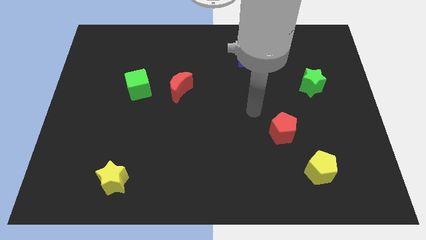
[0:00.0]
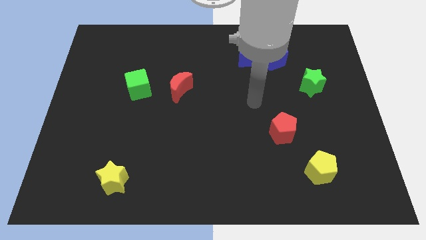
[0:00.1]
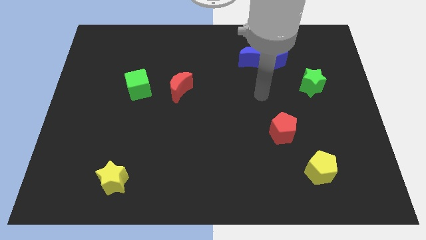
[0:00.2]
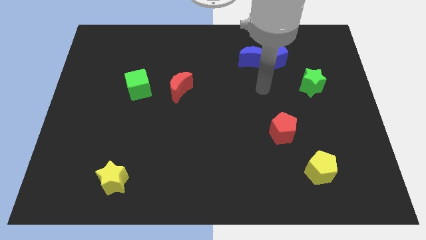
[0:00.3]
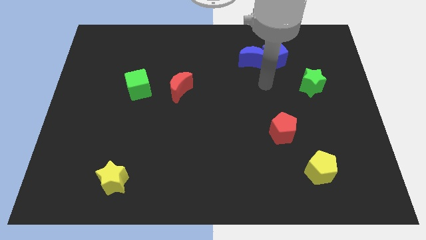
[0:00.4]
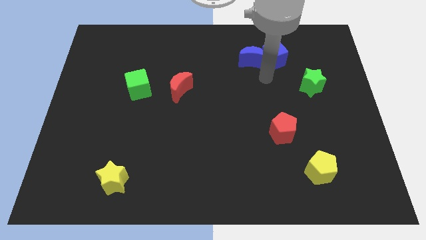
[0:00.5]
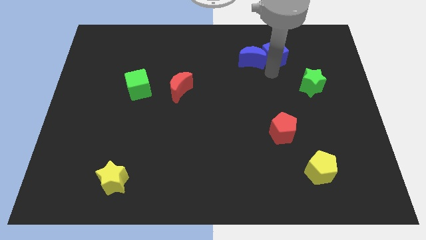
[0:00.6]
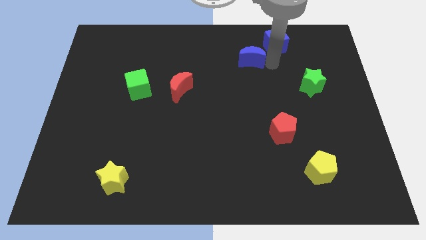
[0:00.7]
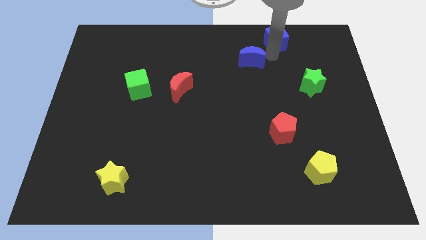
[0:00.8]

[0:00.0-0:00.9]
move the blue moon away from the blue cube

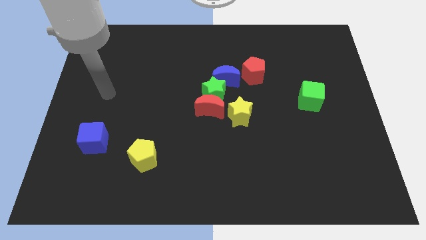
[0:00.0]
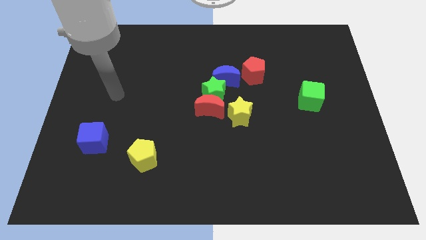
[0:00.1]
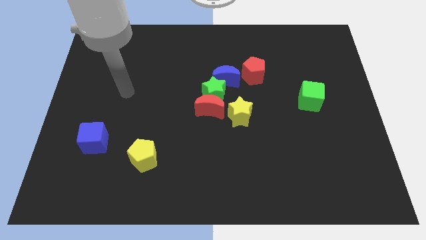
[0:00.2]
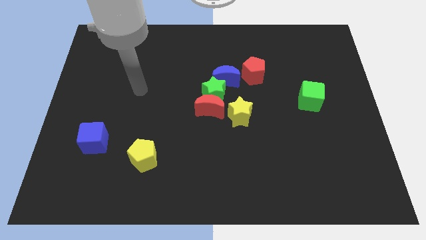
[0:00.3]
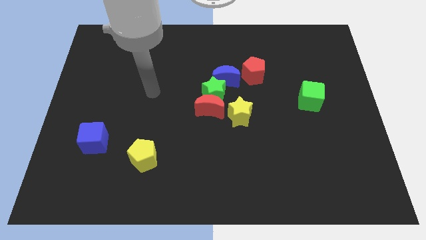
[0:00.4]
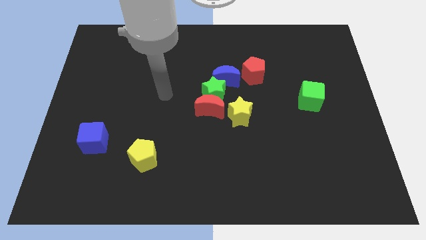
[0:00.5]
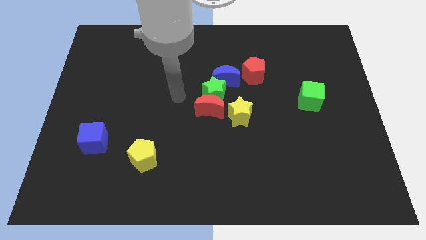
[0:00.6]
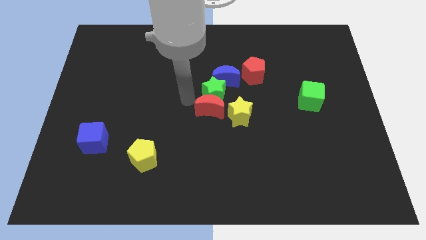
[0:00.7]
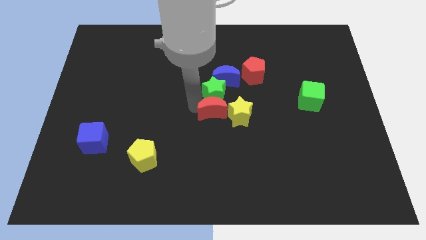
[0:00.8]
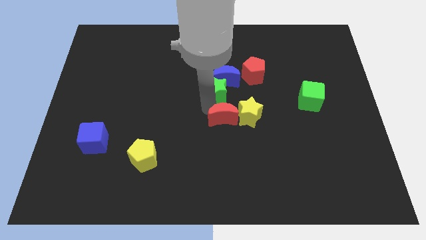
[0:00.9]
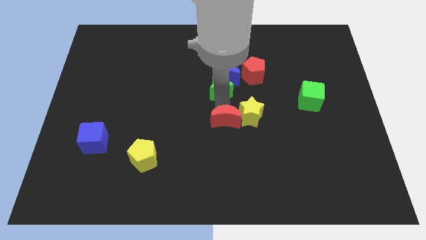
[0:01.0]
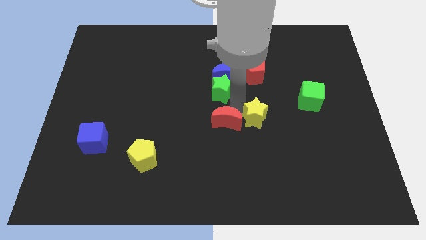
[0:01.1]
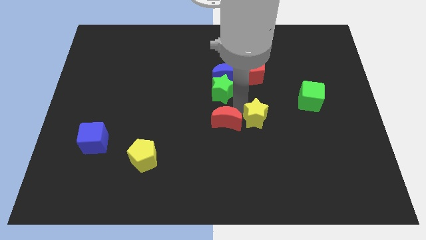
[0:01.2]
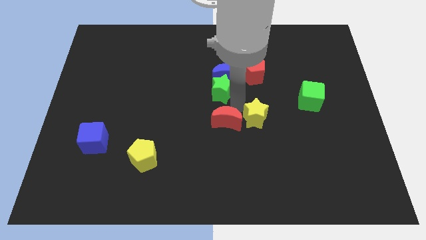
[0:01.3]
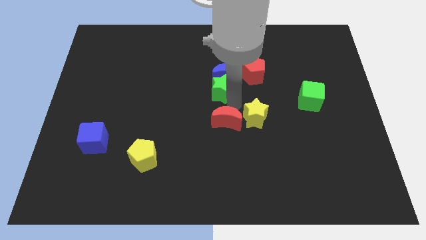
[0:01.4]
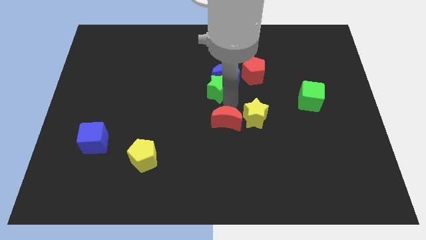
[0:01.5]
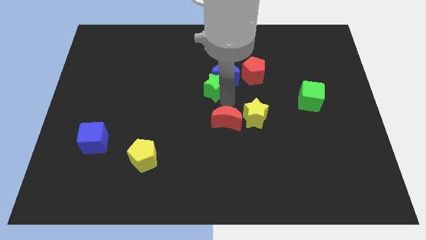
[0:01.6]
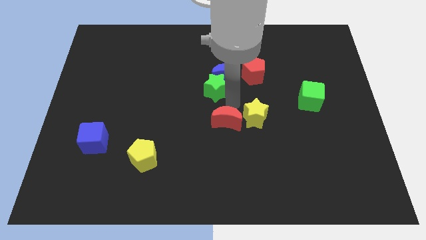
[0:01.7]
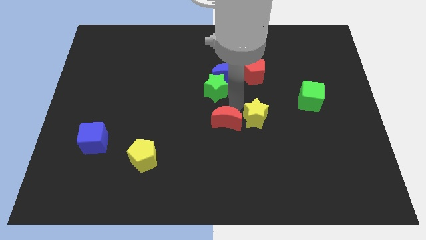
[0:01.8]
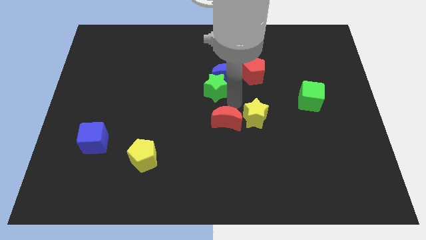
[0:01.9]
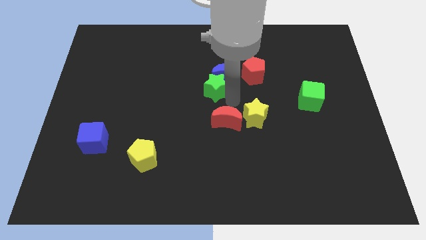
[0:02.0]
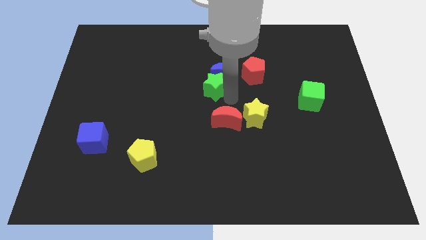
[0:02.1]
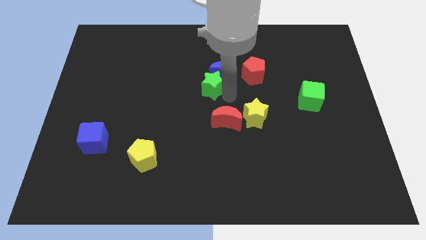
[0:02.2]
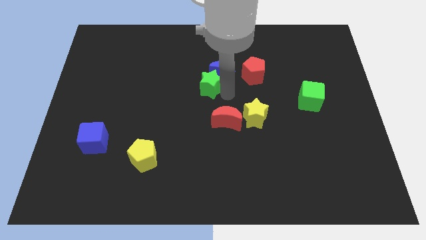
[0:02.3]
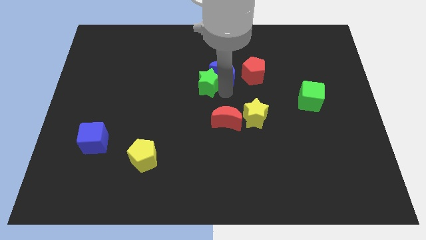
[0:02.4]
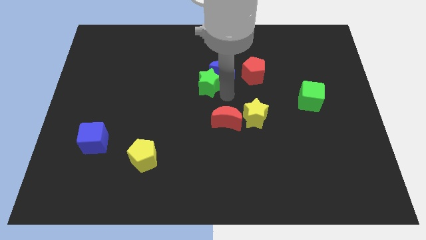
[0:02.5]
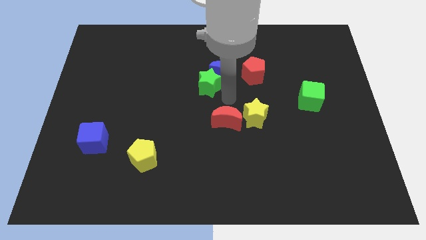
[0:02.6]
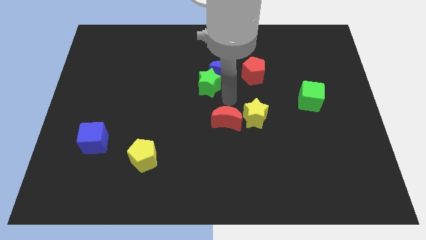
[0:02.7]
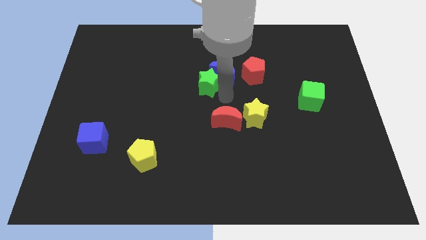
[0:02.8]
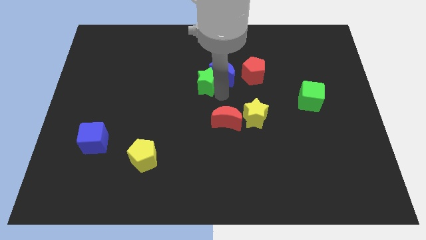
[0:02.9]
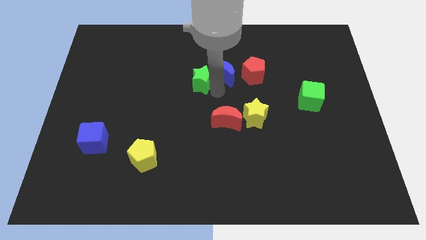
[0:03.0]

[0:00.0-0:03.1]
separate the green star from the group

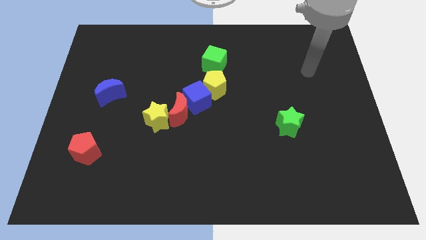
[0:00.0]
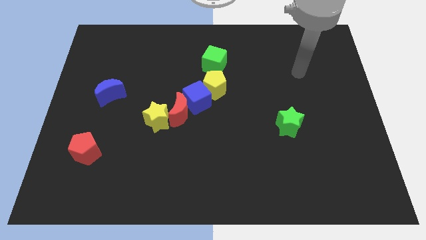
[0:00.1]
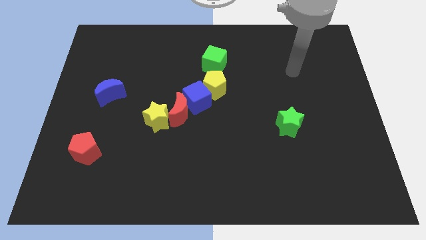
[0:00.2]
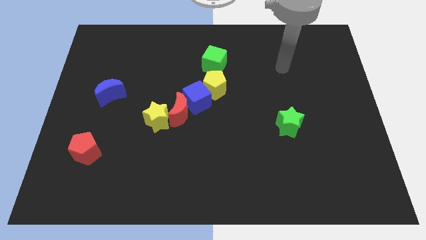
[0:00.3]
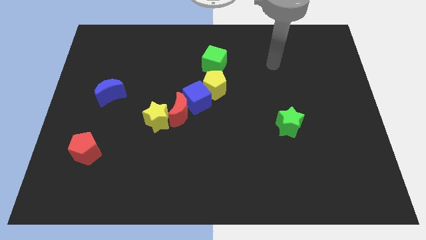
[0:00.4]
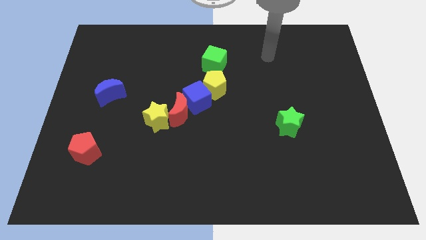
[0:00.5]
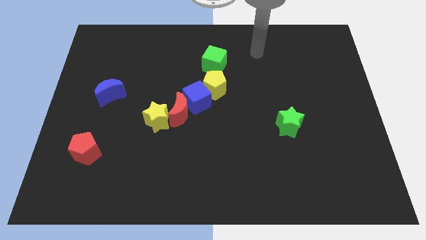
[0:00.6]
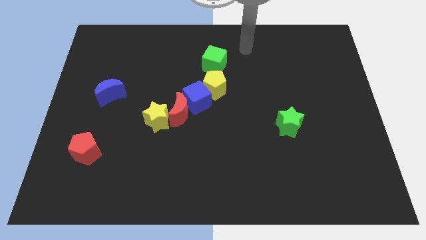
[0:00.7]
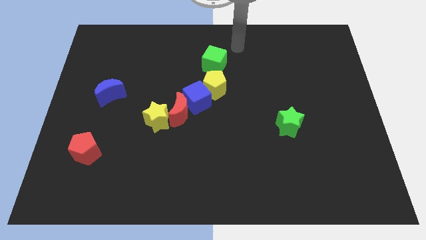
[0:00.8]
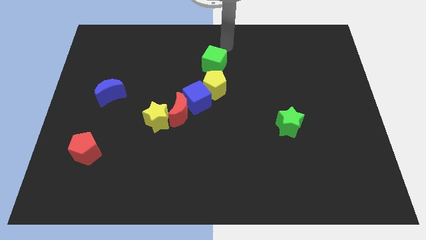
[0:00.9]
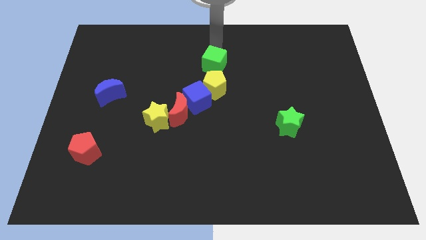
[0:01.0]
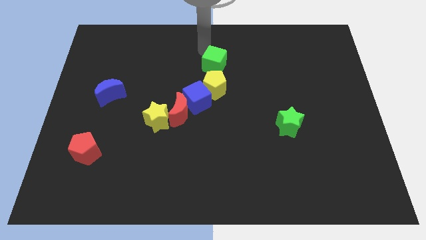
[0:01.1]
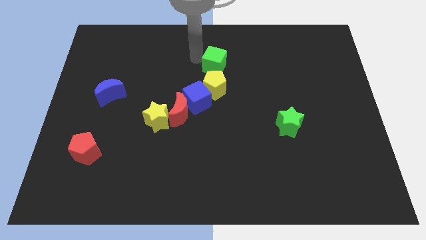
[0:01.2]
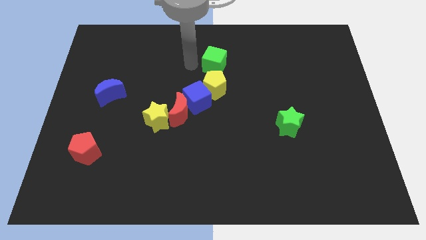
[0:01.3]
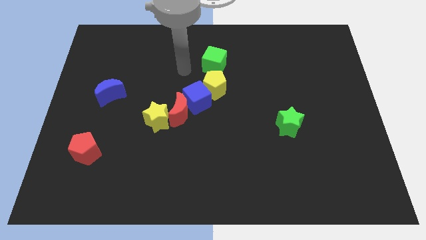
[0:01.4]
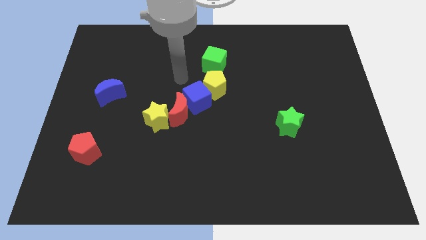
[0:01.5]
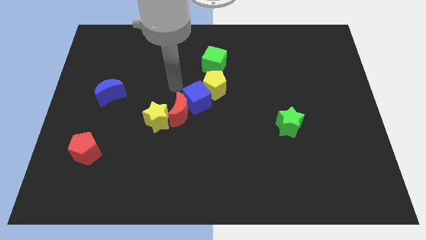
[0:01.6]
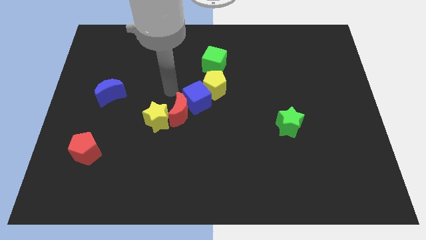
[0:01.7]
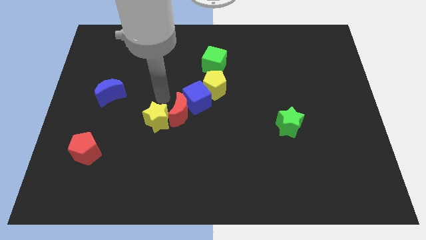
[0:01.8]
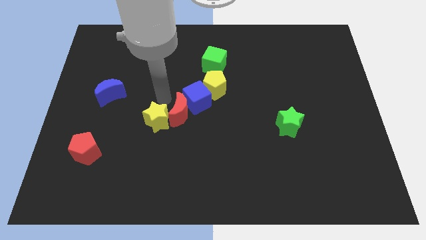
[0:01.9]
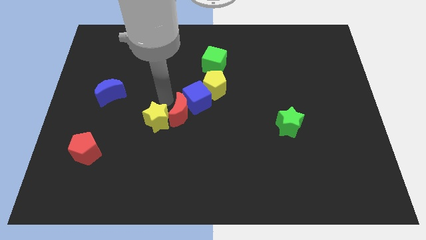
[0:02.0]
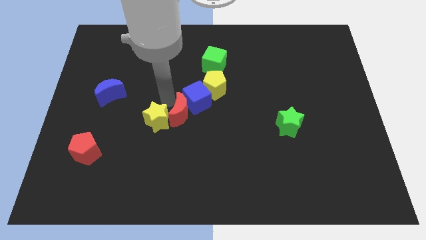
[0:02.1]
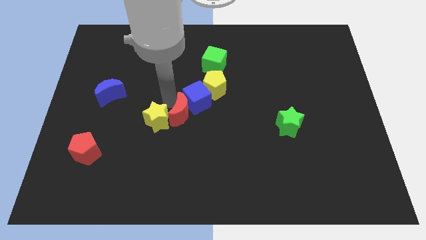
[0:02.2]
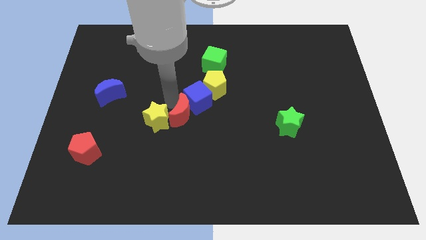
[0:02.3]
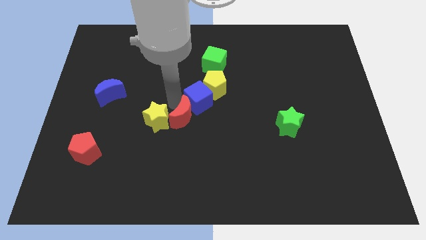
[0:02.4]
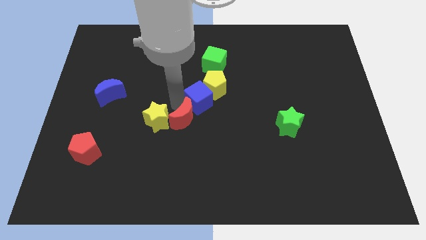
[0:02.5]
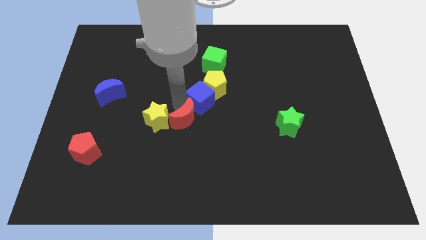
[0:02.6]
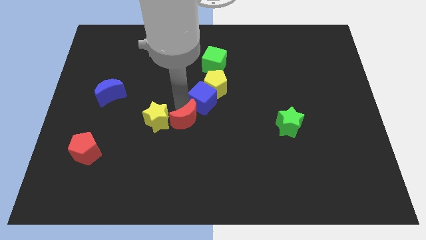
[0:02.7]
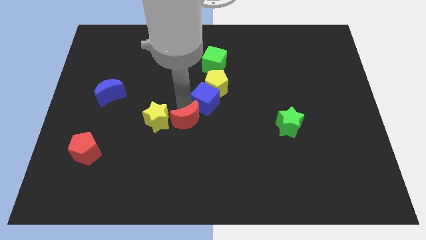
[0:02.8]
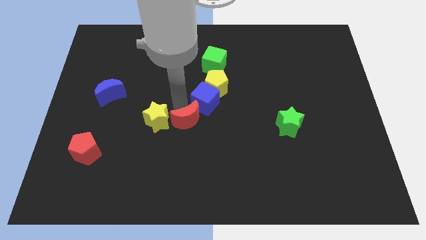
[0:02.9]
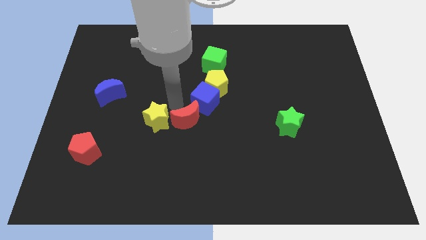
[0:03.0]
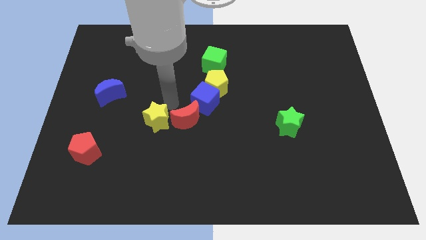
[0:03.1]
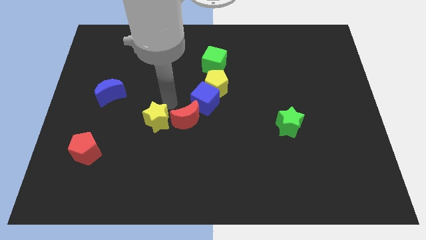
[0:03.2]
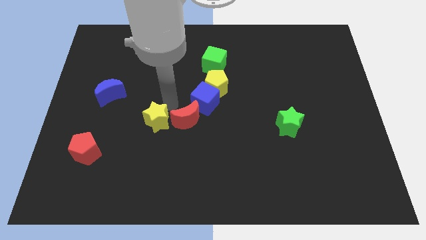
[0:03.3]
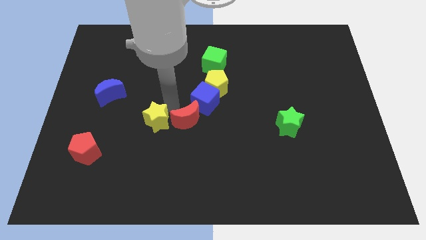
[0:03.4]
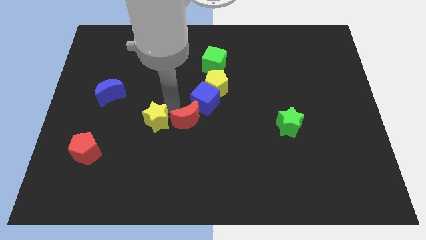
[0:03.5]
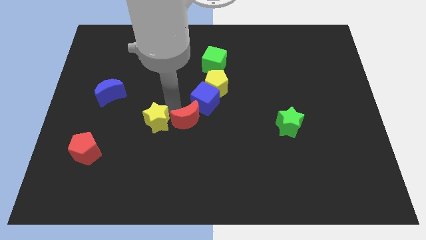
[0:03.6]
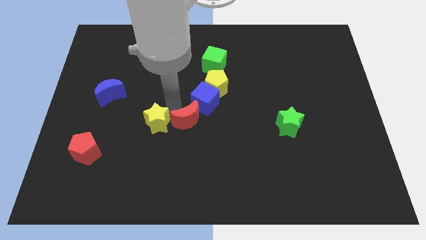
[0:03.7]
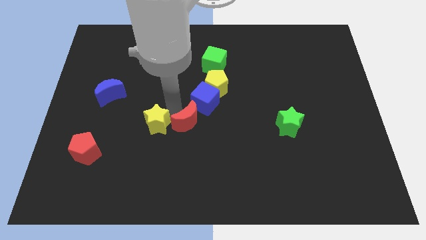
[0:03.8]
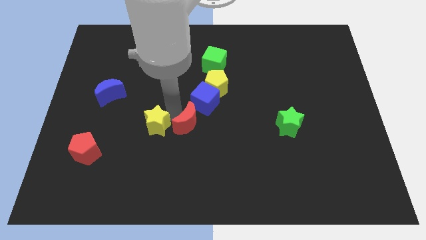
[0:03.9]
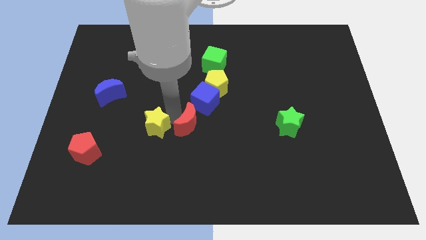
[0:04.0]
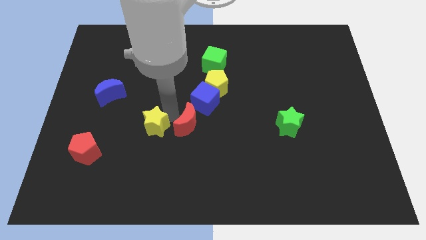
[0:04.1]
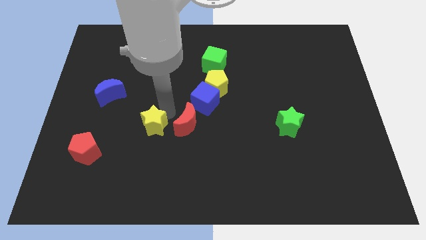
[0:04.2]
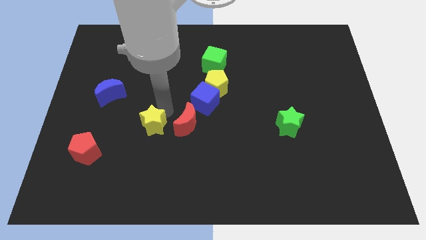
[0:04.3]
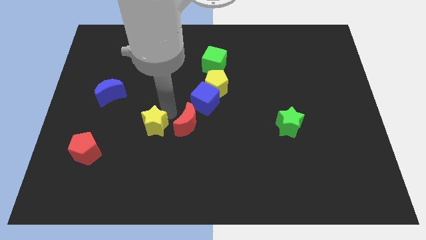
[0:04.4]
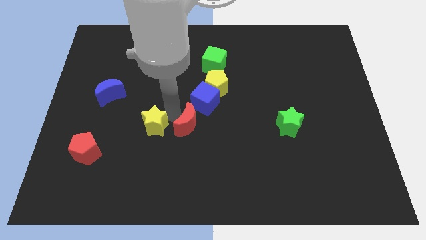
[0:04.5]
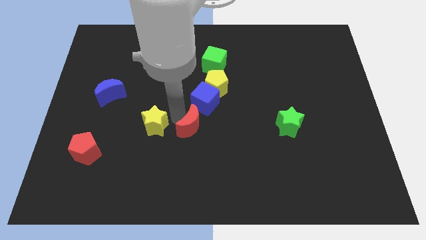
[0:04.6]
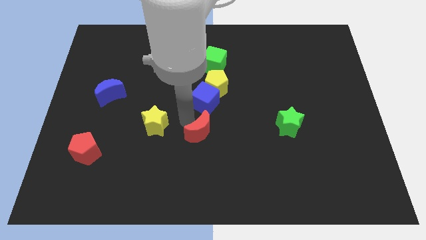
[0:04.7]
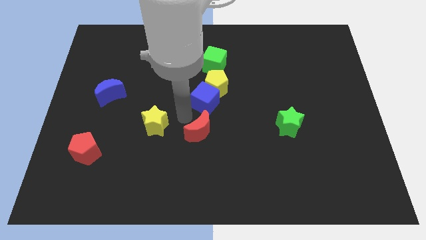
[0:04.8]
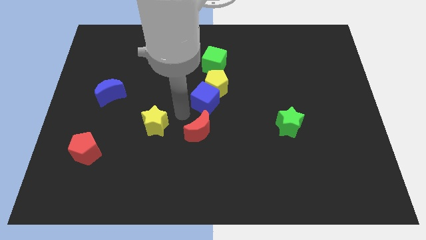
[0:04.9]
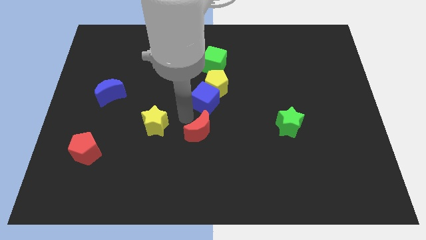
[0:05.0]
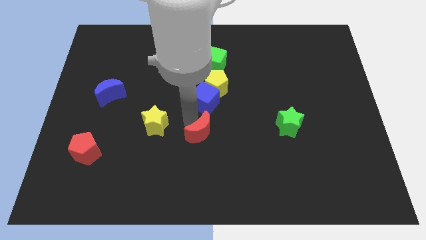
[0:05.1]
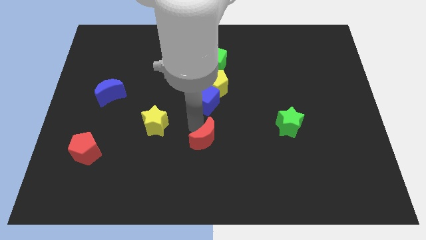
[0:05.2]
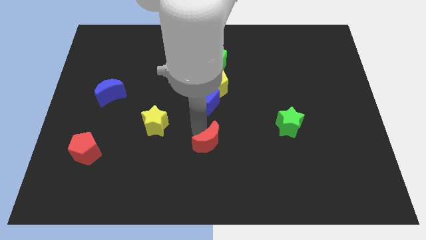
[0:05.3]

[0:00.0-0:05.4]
move the red moon away from the blue cube and yellow star
